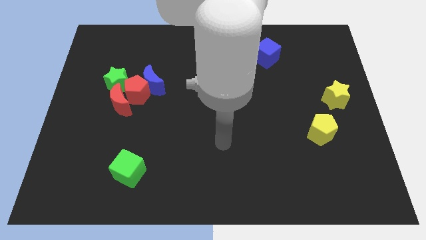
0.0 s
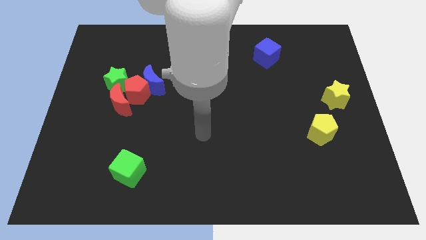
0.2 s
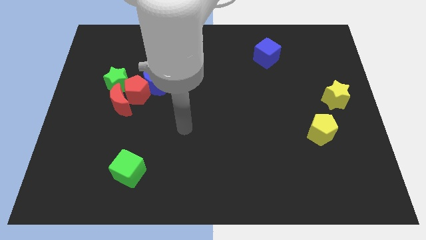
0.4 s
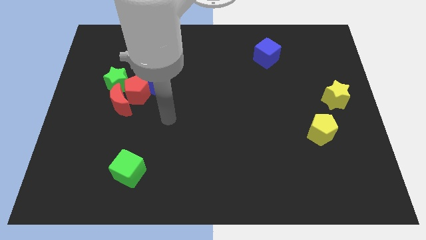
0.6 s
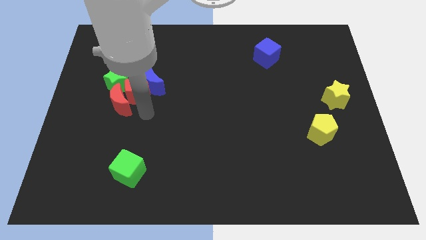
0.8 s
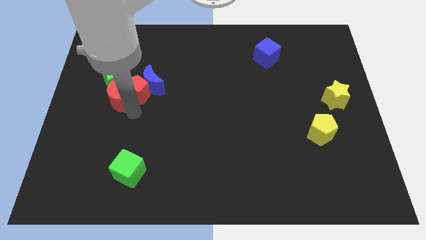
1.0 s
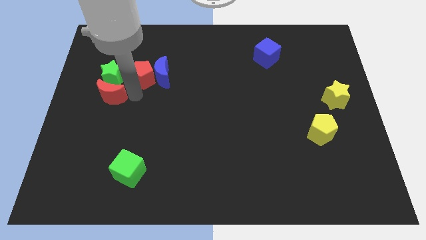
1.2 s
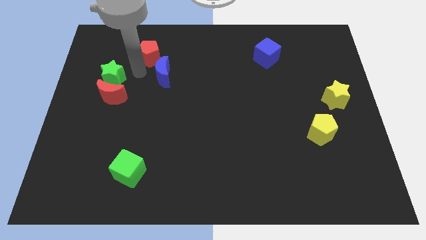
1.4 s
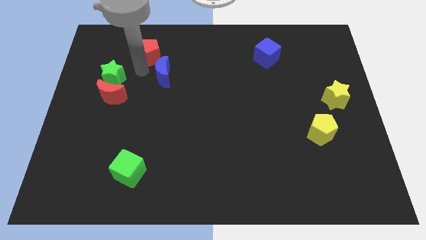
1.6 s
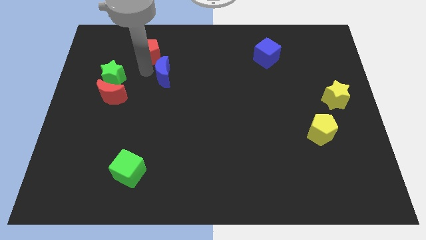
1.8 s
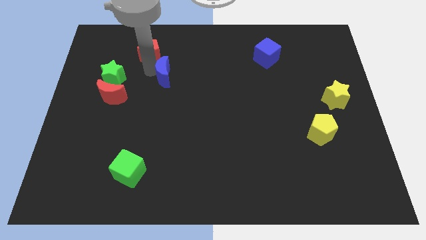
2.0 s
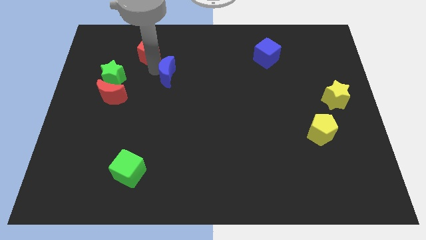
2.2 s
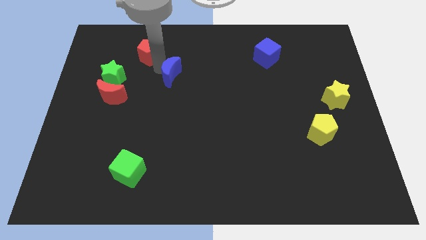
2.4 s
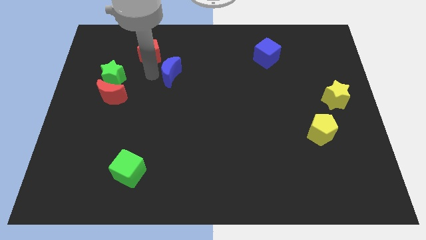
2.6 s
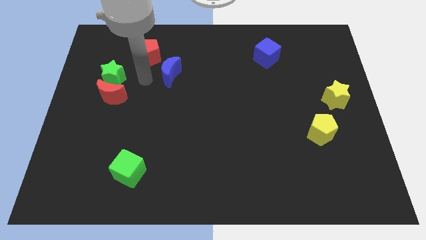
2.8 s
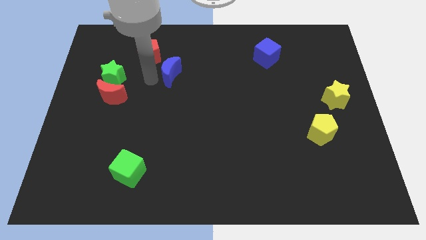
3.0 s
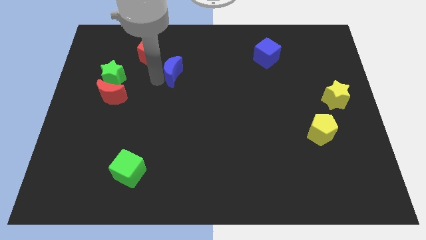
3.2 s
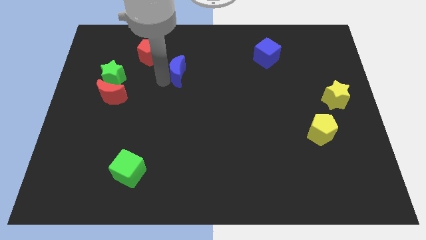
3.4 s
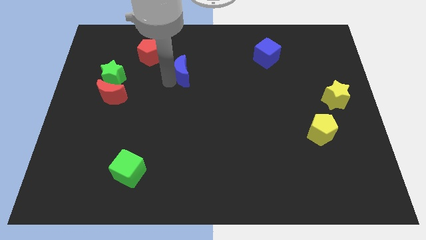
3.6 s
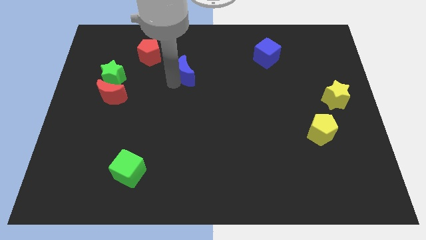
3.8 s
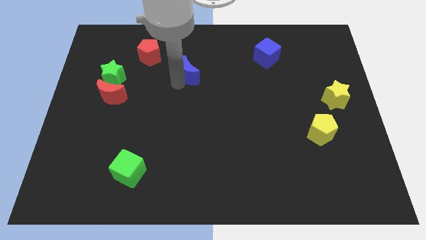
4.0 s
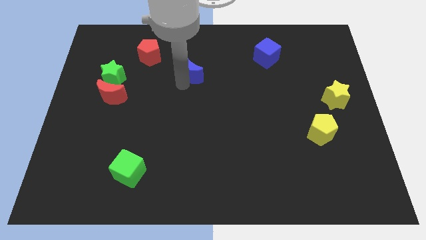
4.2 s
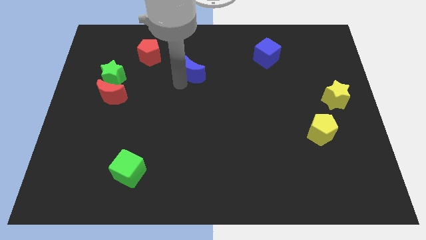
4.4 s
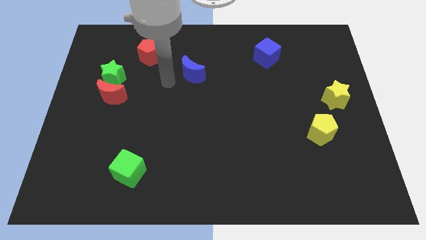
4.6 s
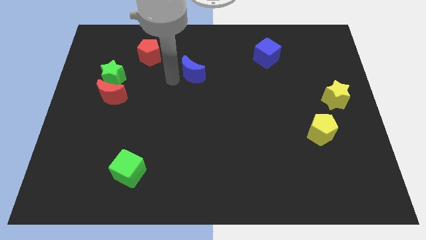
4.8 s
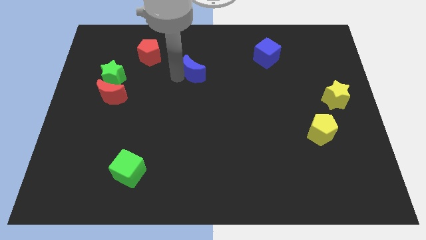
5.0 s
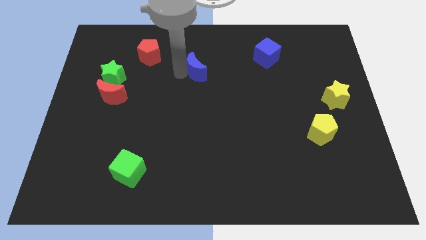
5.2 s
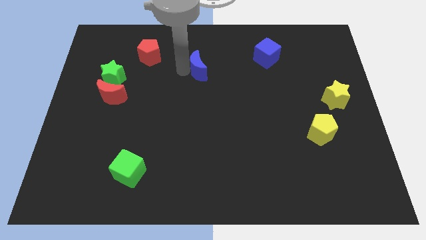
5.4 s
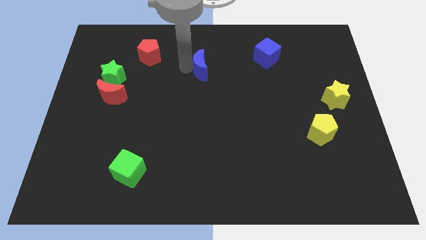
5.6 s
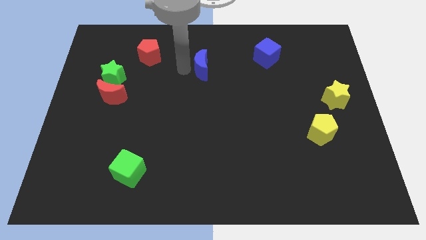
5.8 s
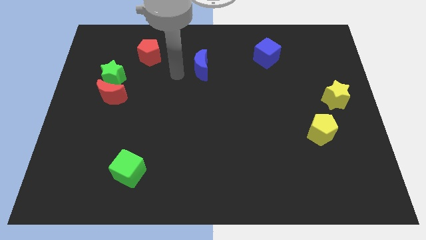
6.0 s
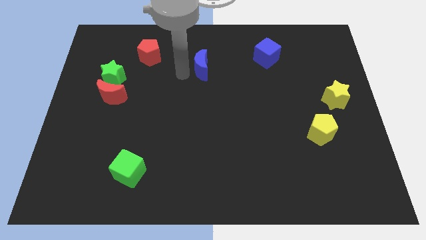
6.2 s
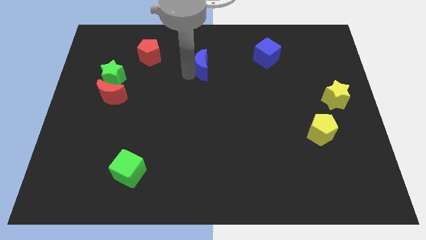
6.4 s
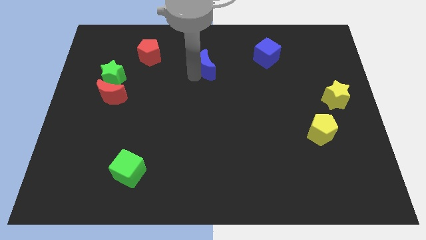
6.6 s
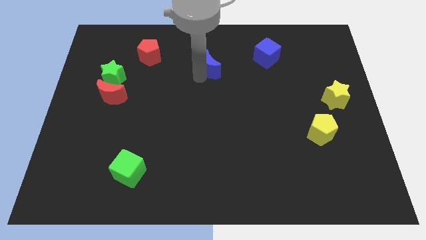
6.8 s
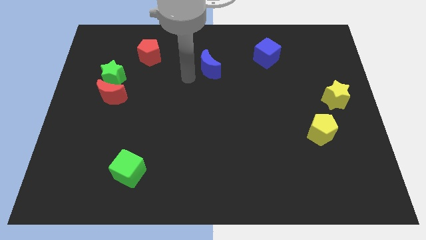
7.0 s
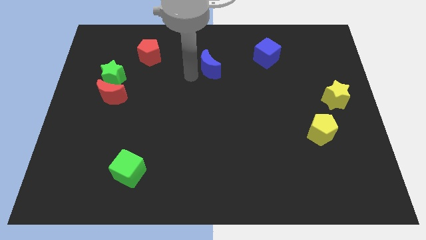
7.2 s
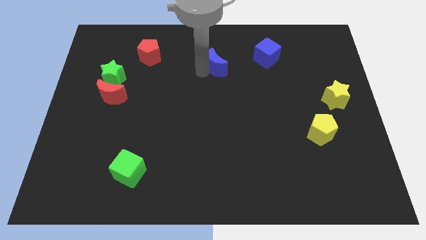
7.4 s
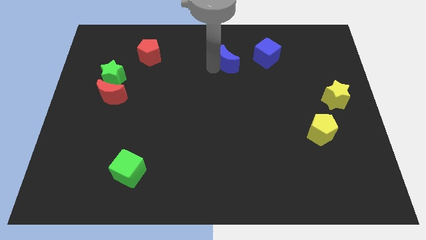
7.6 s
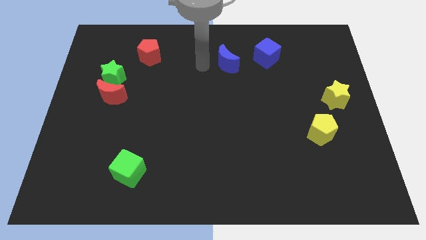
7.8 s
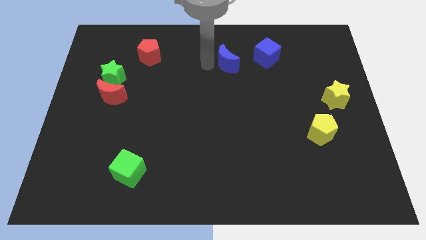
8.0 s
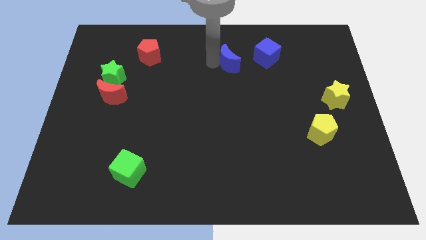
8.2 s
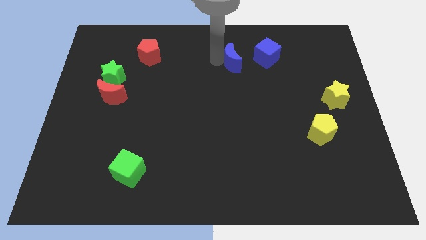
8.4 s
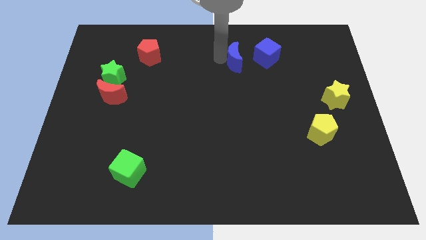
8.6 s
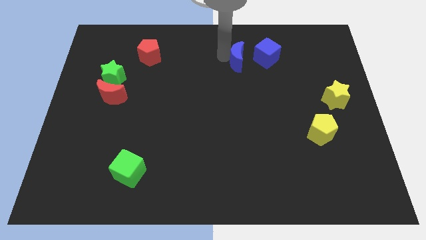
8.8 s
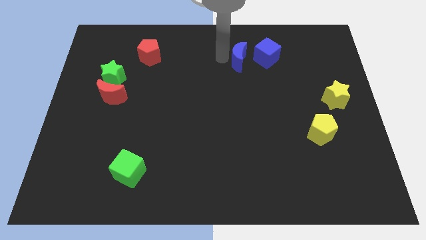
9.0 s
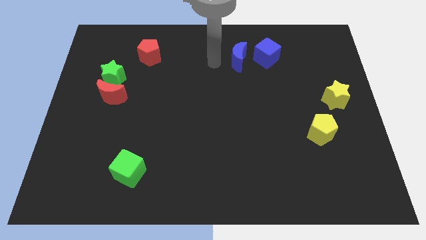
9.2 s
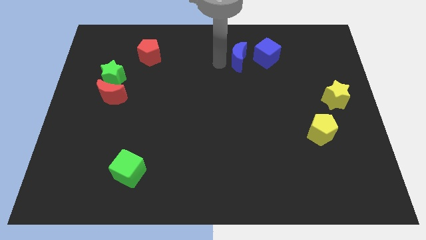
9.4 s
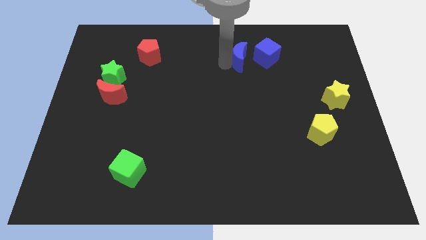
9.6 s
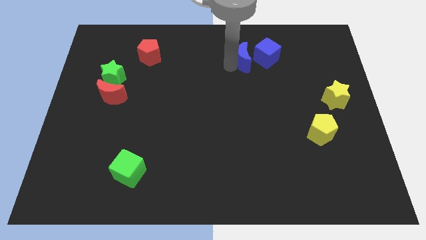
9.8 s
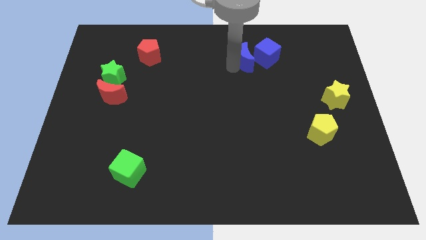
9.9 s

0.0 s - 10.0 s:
move the blue moon towards the blue cube

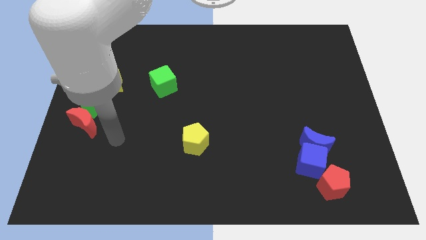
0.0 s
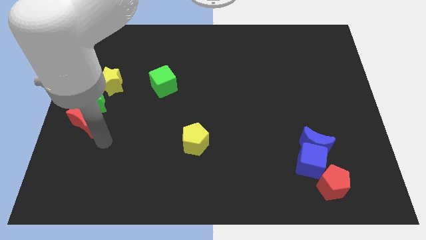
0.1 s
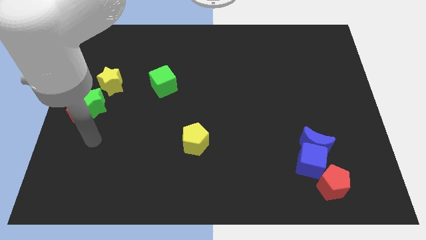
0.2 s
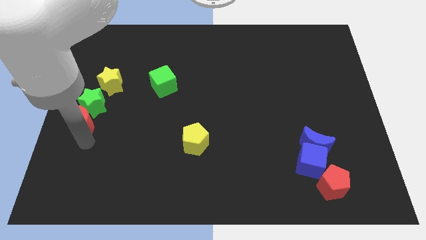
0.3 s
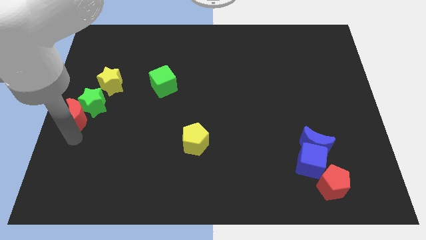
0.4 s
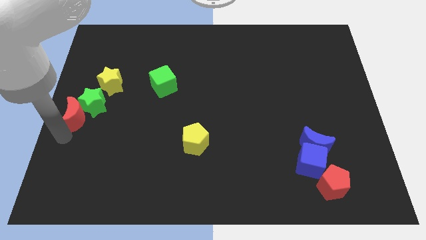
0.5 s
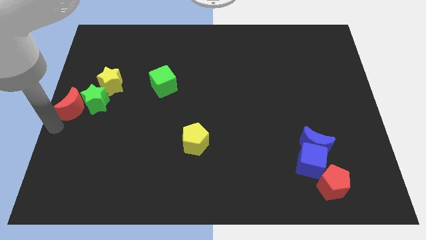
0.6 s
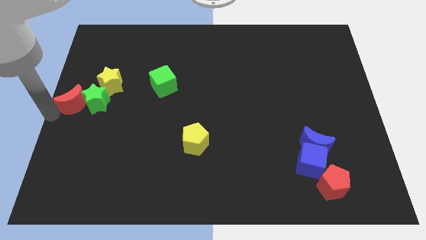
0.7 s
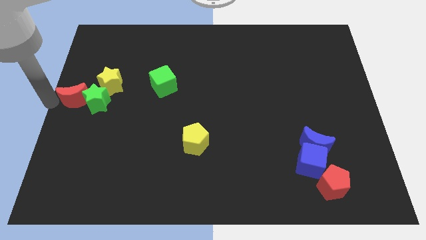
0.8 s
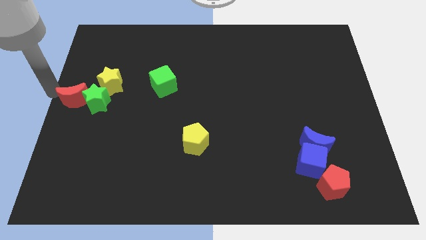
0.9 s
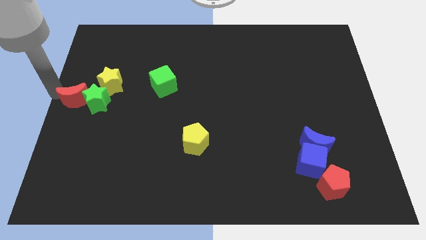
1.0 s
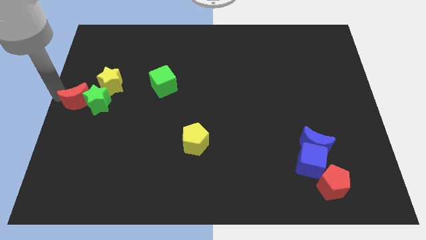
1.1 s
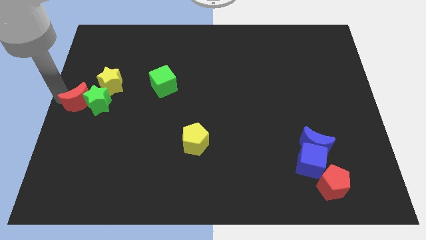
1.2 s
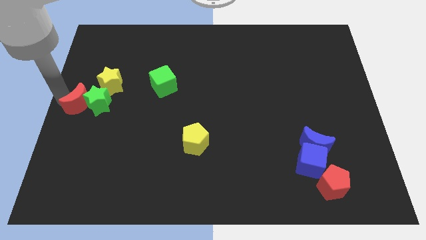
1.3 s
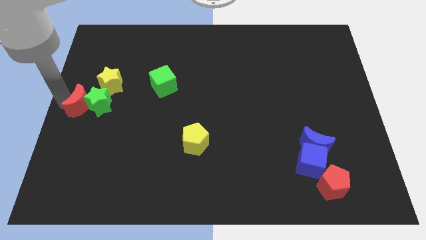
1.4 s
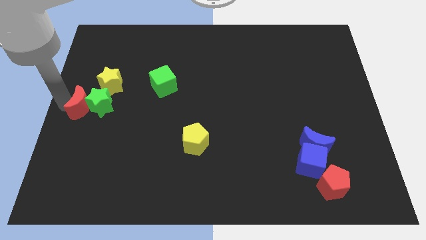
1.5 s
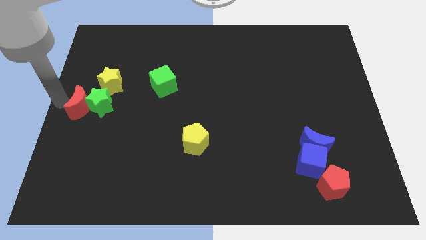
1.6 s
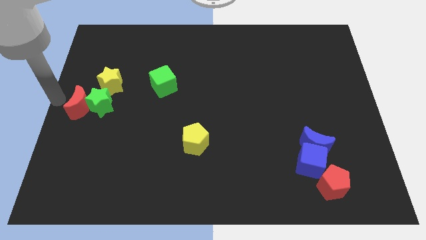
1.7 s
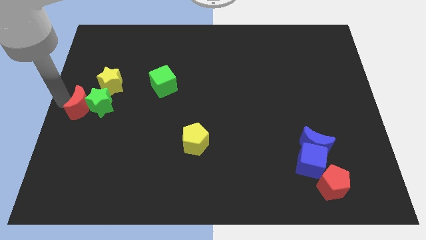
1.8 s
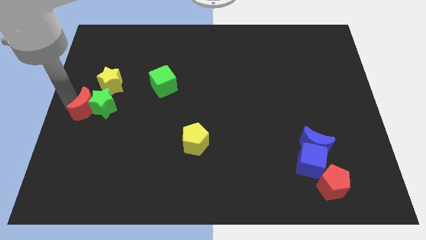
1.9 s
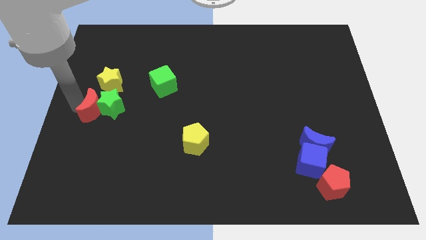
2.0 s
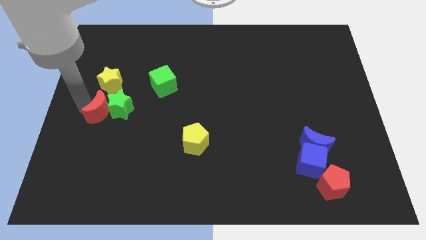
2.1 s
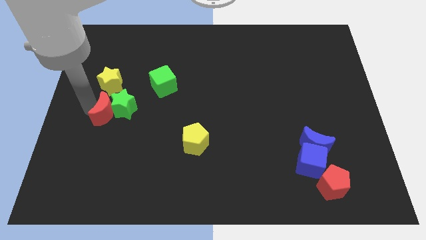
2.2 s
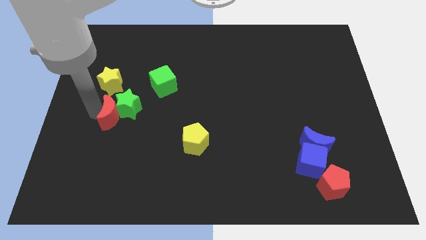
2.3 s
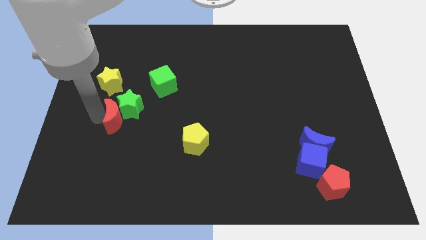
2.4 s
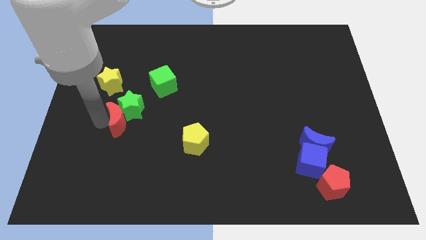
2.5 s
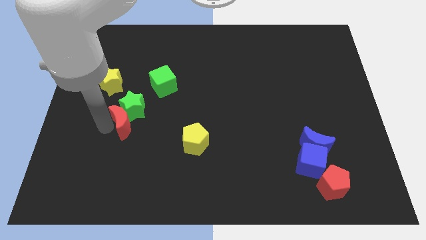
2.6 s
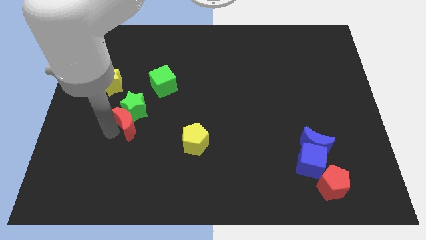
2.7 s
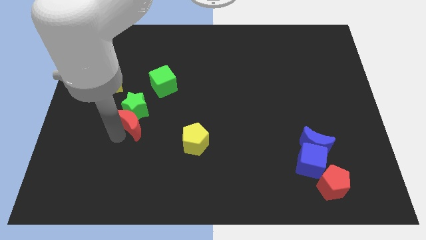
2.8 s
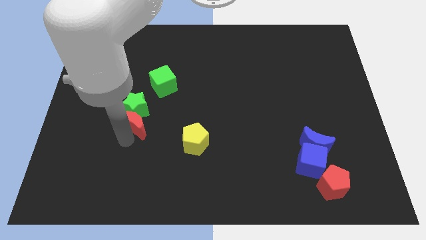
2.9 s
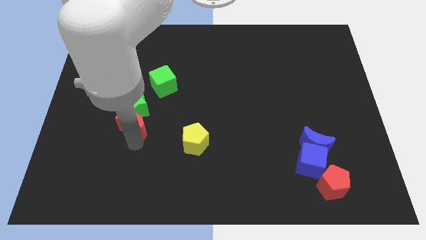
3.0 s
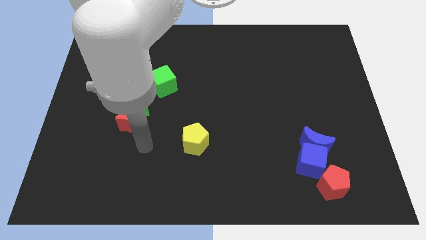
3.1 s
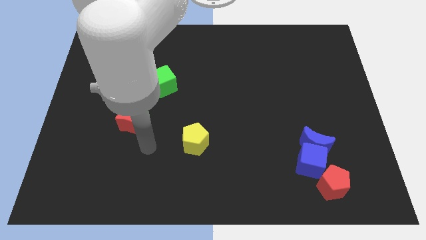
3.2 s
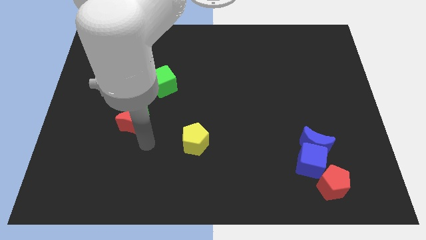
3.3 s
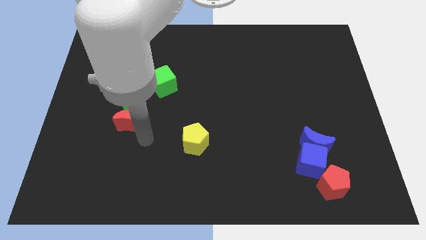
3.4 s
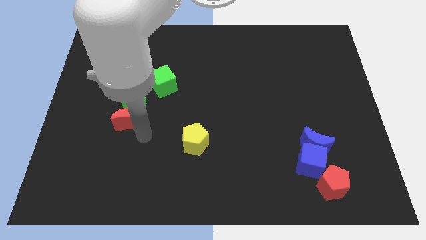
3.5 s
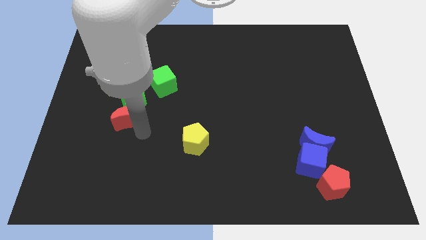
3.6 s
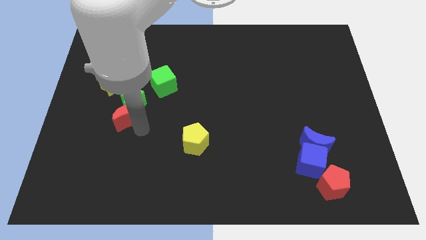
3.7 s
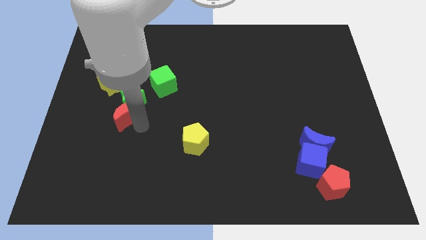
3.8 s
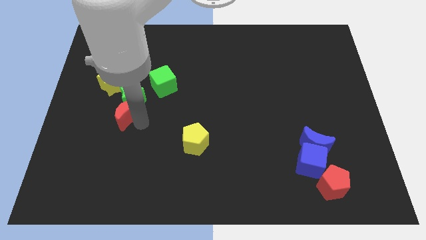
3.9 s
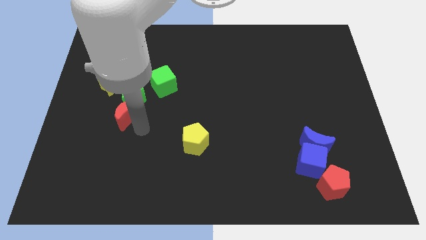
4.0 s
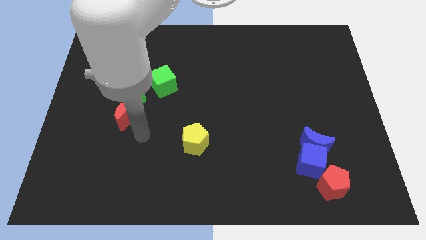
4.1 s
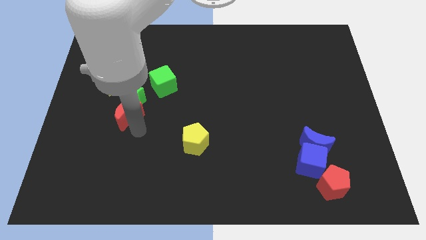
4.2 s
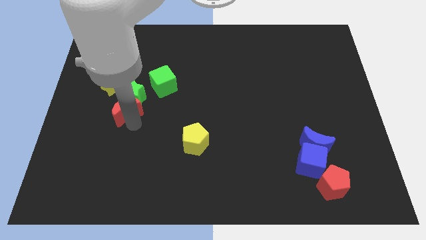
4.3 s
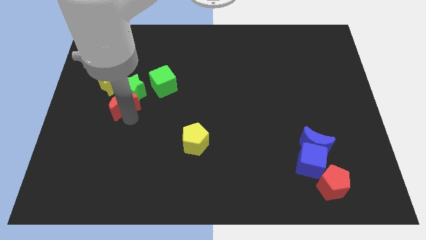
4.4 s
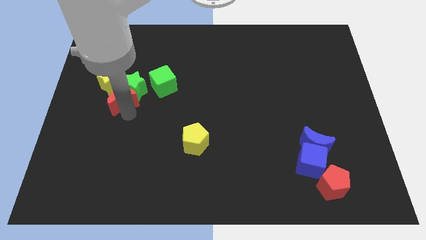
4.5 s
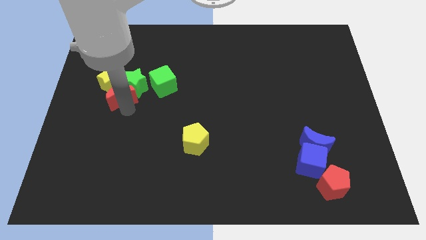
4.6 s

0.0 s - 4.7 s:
move the red moon to the yellow star
